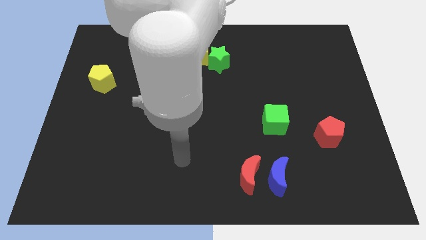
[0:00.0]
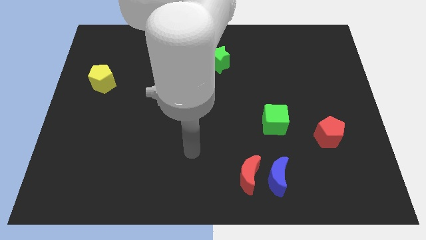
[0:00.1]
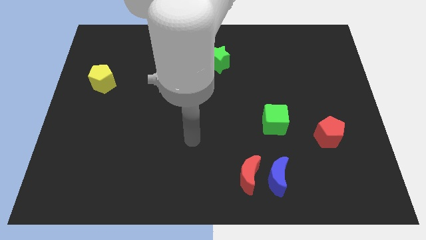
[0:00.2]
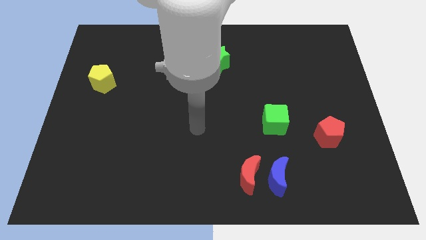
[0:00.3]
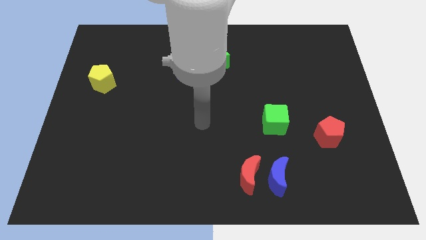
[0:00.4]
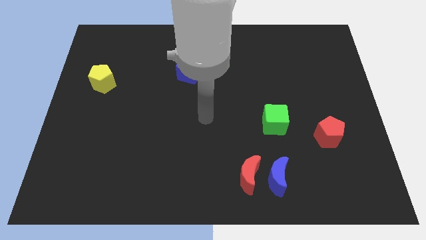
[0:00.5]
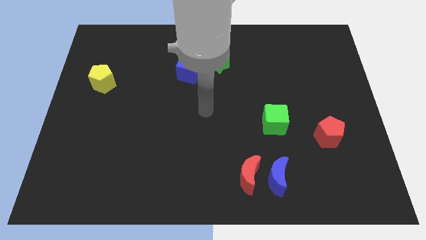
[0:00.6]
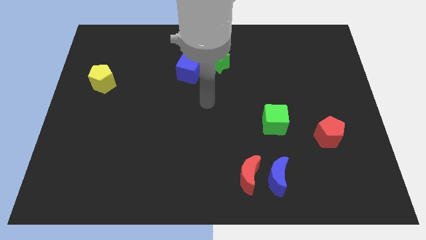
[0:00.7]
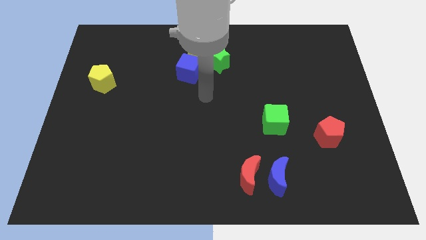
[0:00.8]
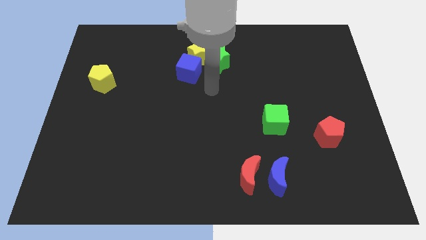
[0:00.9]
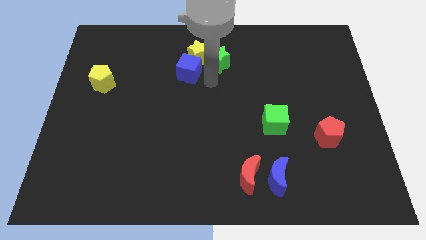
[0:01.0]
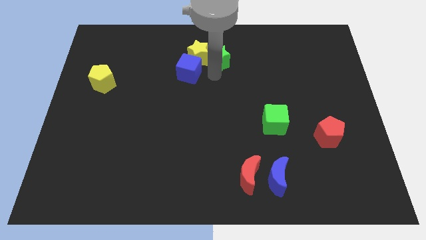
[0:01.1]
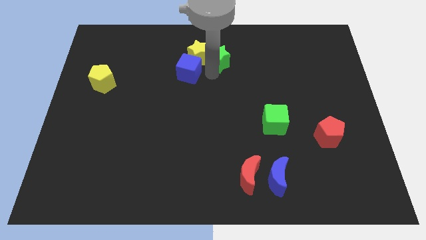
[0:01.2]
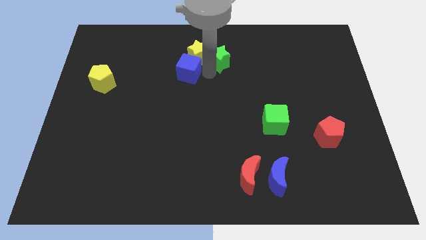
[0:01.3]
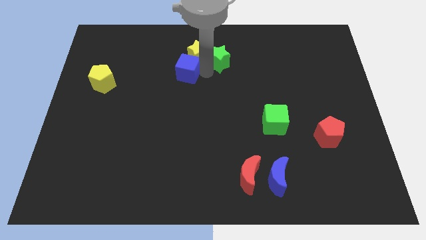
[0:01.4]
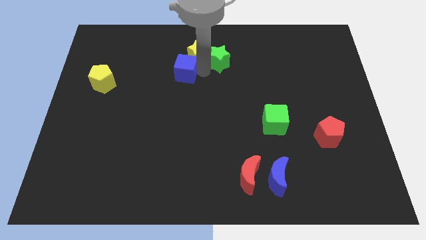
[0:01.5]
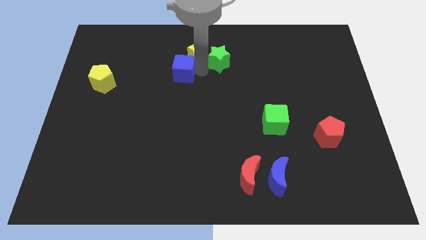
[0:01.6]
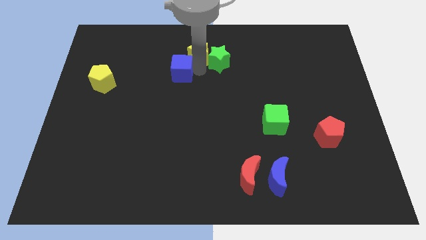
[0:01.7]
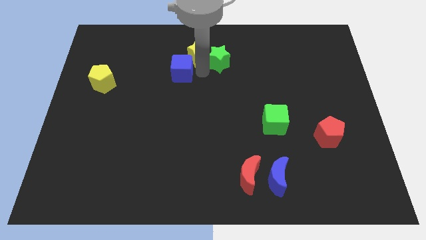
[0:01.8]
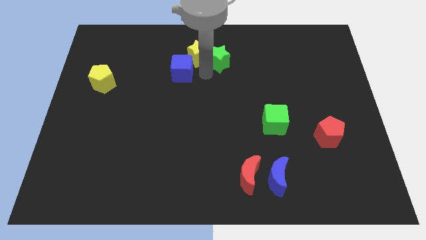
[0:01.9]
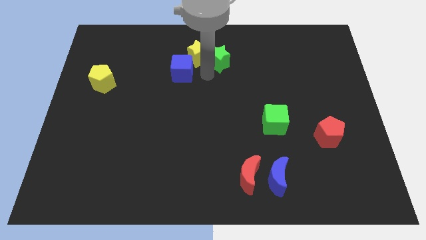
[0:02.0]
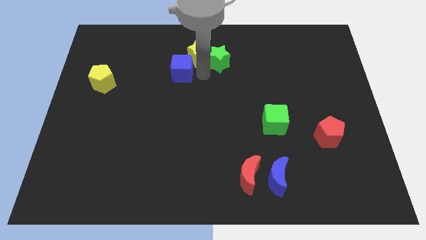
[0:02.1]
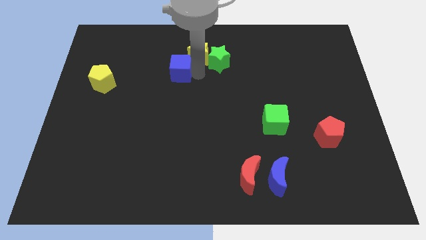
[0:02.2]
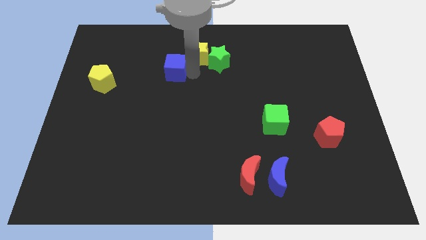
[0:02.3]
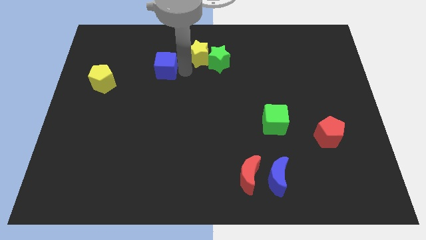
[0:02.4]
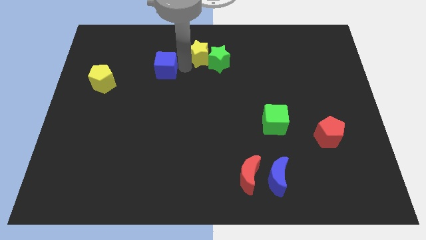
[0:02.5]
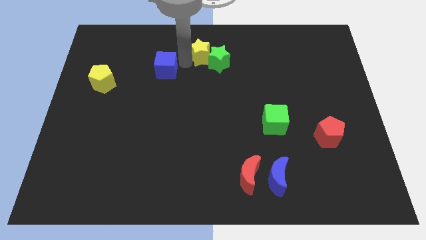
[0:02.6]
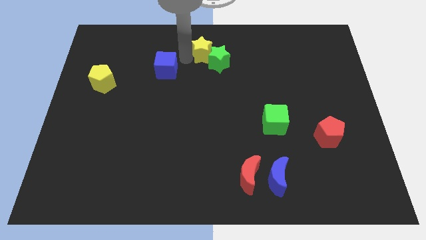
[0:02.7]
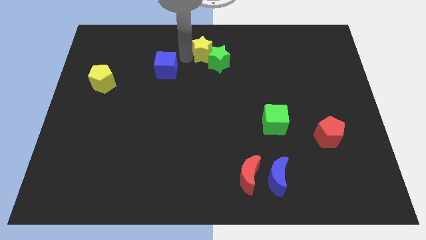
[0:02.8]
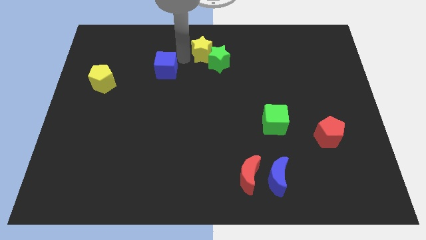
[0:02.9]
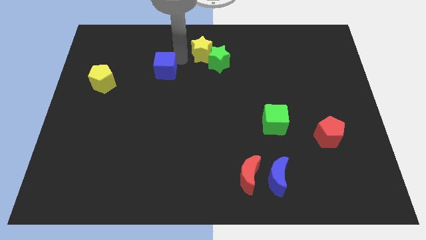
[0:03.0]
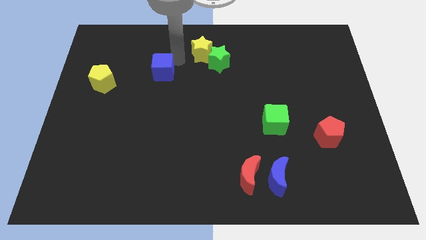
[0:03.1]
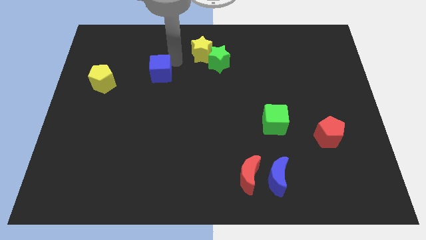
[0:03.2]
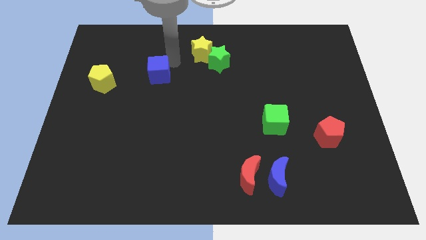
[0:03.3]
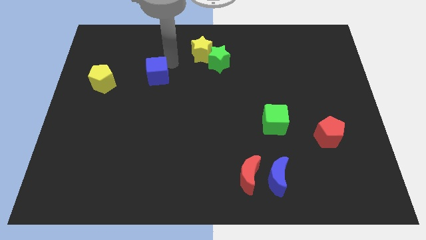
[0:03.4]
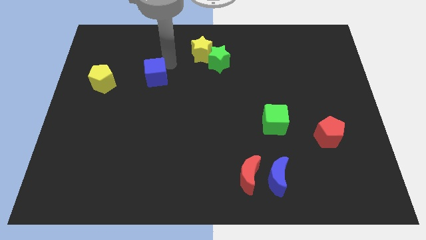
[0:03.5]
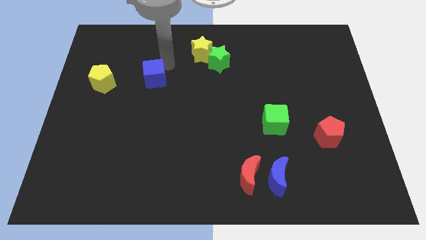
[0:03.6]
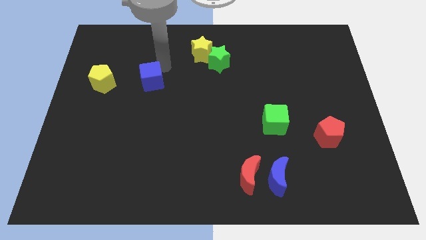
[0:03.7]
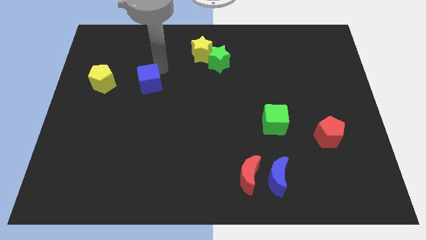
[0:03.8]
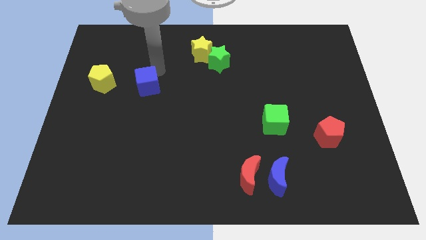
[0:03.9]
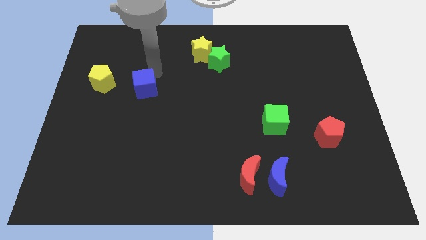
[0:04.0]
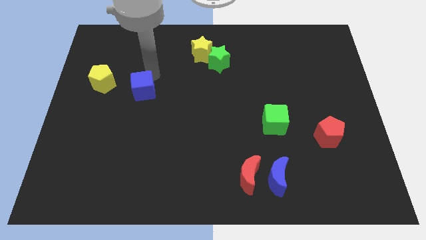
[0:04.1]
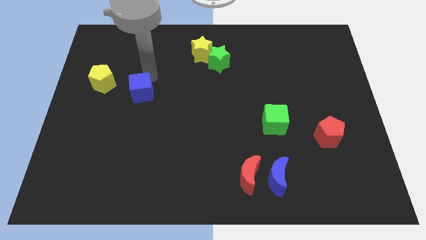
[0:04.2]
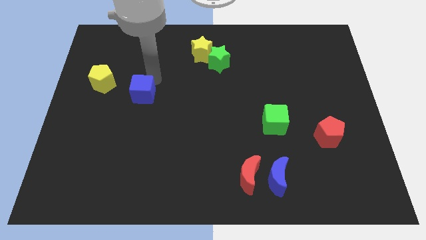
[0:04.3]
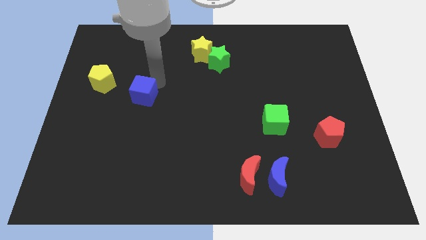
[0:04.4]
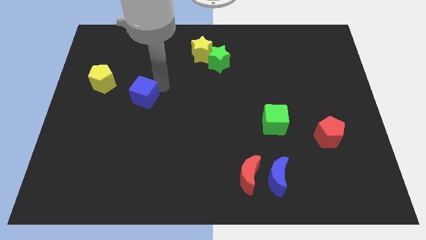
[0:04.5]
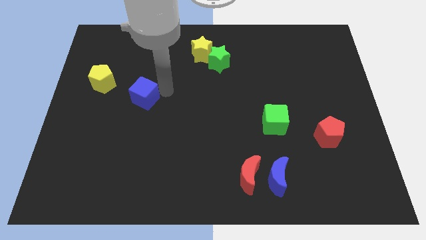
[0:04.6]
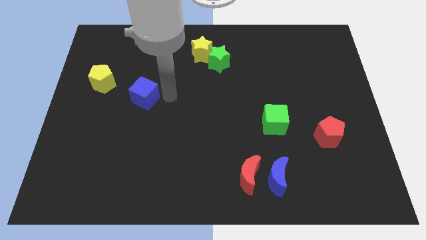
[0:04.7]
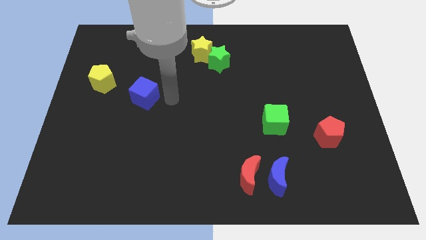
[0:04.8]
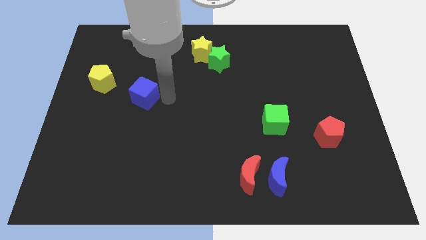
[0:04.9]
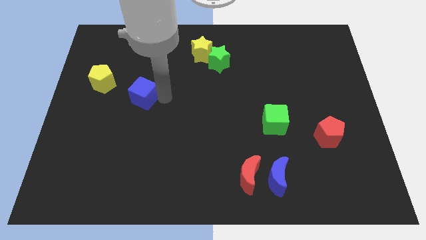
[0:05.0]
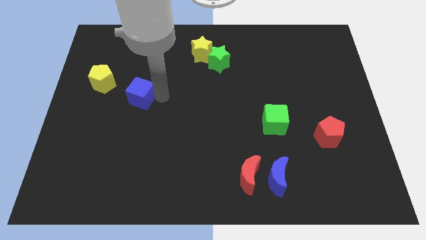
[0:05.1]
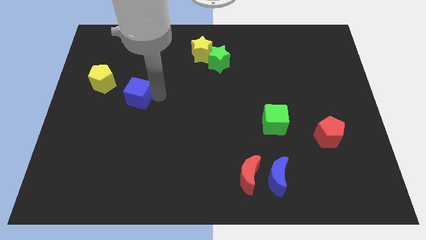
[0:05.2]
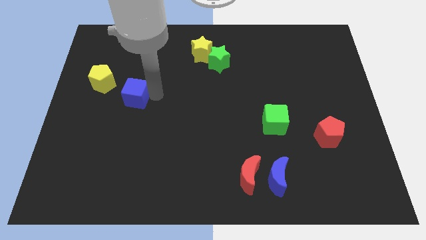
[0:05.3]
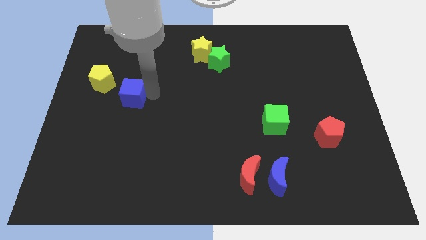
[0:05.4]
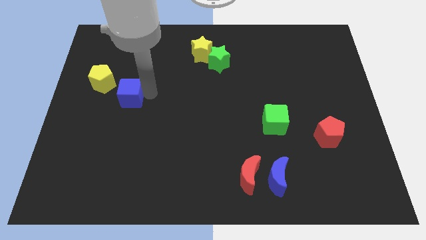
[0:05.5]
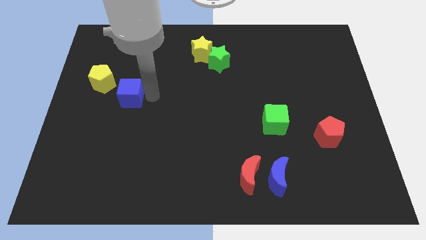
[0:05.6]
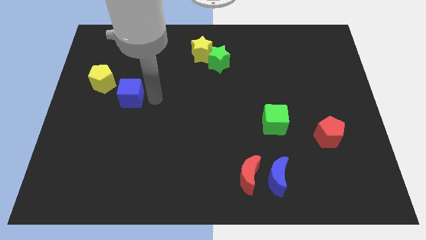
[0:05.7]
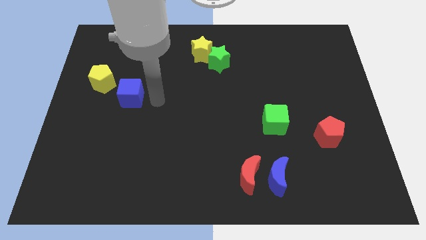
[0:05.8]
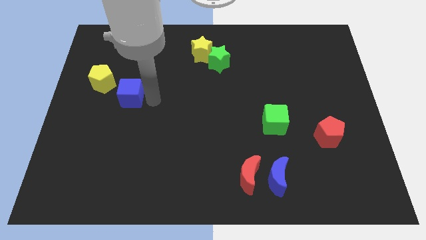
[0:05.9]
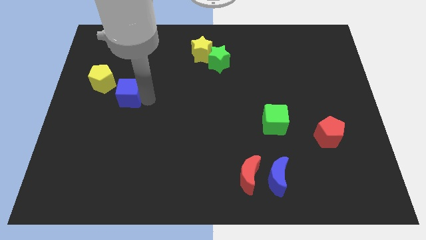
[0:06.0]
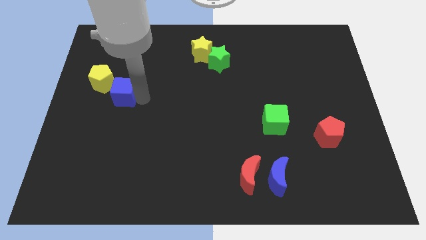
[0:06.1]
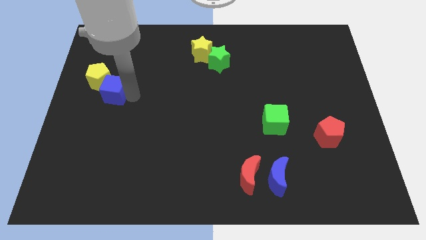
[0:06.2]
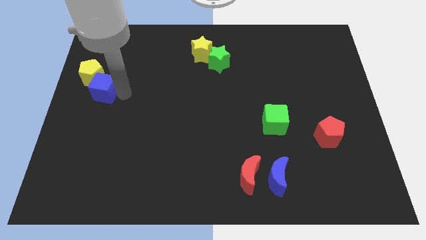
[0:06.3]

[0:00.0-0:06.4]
move the blue cube to the left side of the board

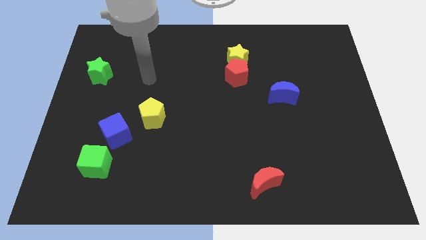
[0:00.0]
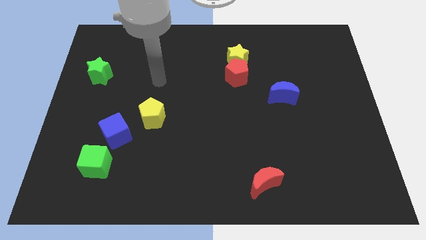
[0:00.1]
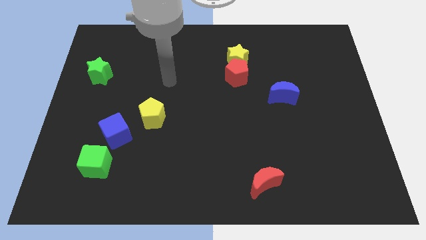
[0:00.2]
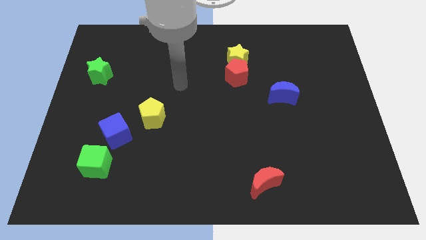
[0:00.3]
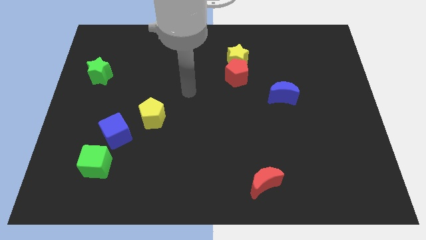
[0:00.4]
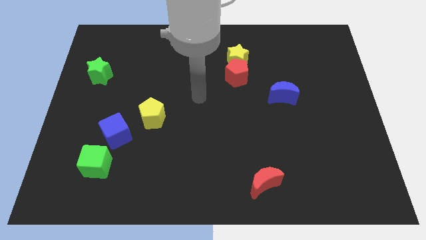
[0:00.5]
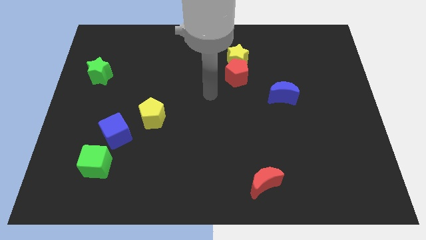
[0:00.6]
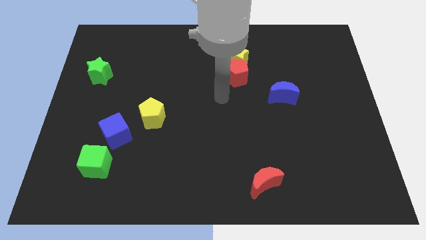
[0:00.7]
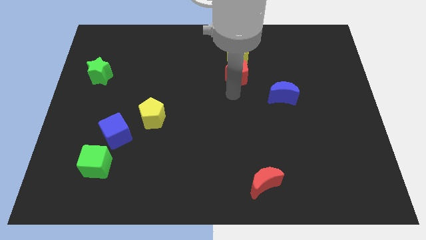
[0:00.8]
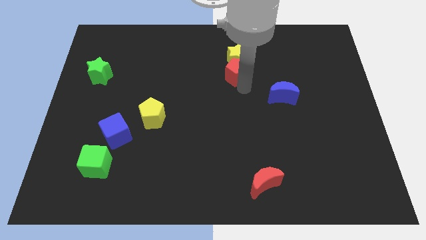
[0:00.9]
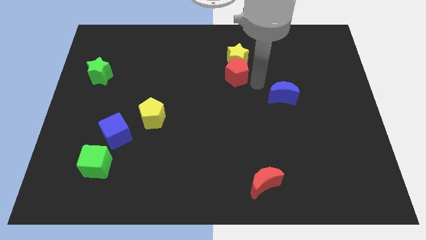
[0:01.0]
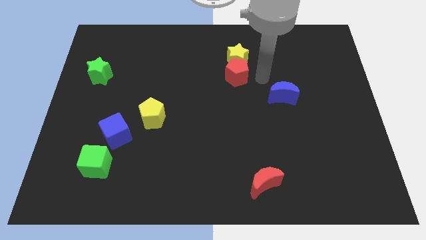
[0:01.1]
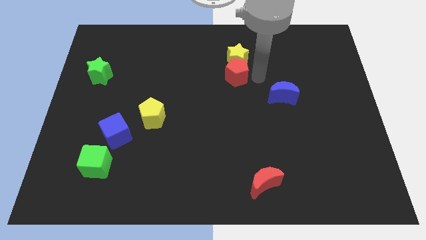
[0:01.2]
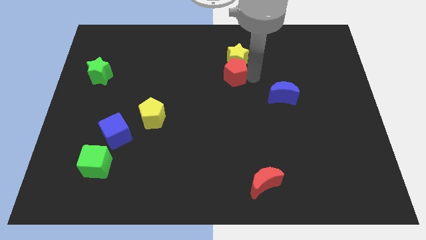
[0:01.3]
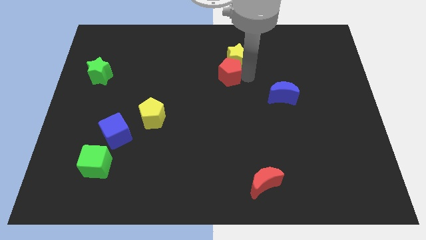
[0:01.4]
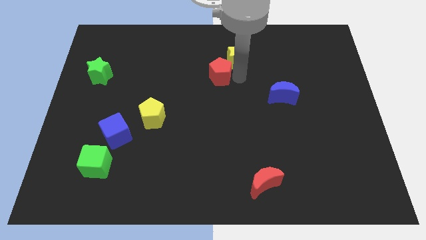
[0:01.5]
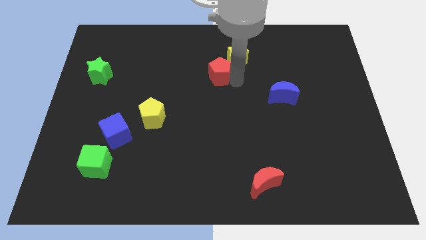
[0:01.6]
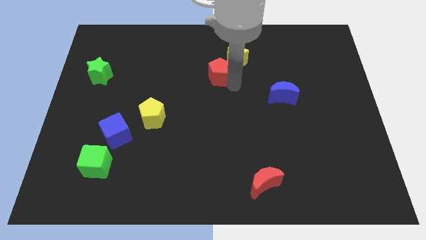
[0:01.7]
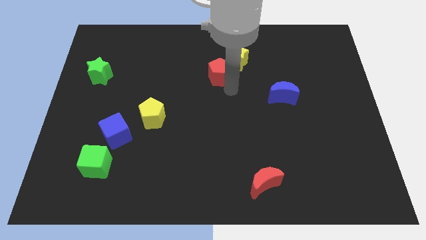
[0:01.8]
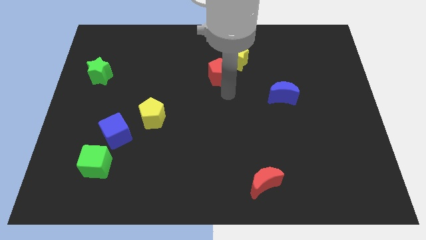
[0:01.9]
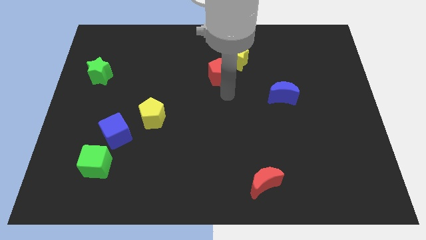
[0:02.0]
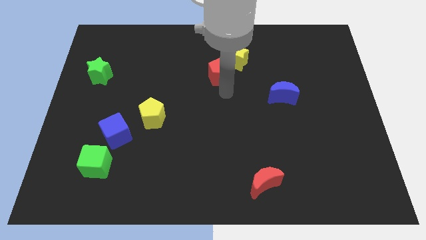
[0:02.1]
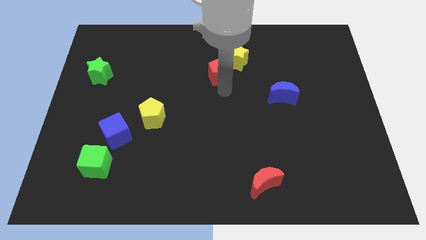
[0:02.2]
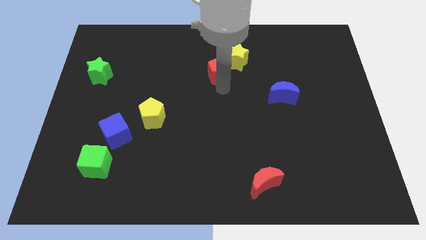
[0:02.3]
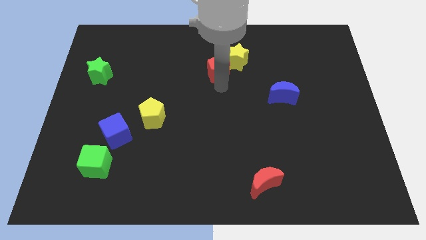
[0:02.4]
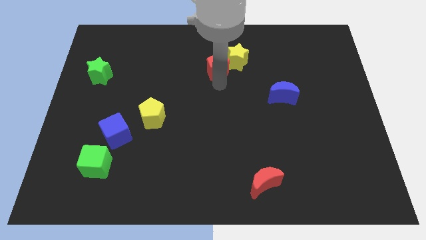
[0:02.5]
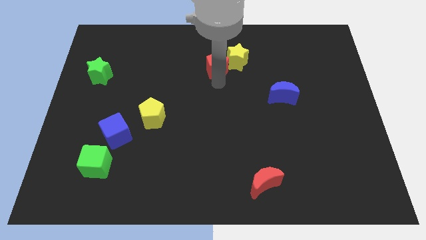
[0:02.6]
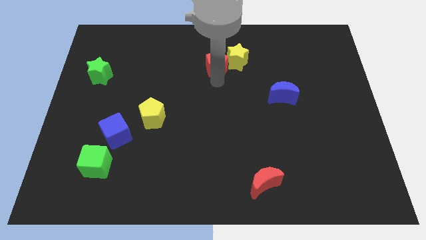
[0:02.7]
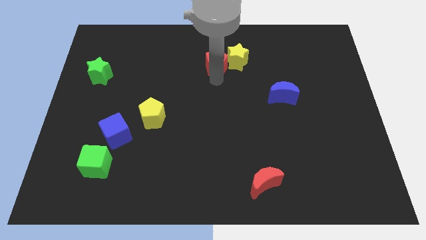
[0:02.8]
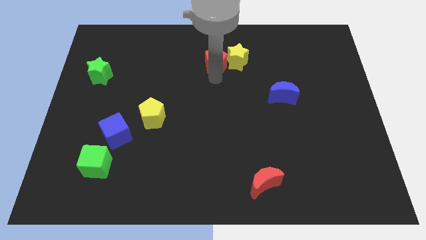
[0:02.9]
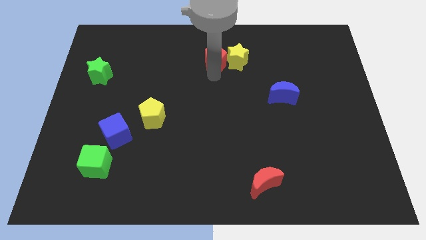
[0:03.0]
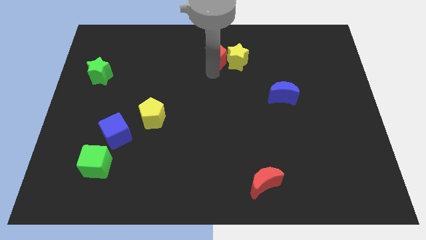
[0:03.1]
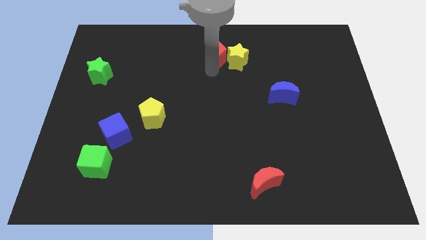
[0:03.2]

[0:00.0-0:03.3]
move the red pentagon to the top
